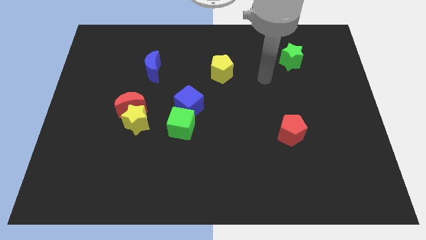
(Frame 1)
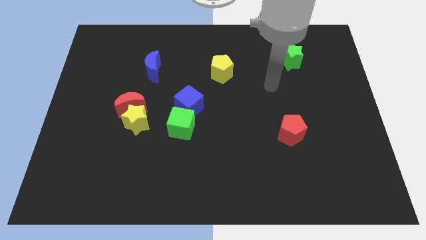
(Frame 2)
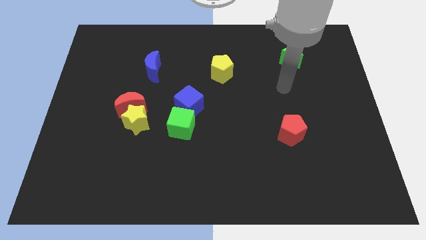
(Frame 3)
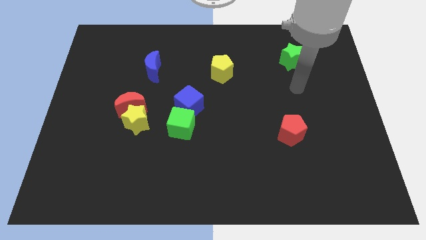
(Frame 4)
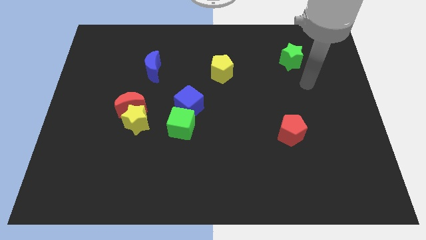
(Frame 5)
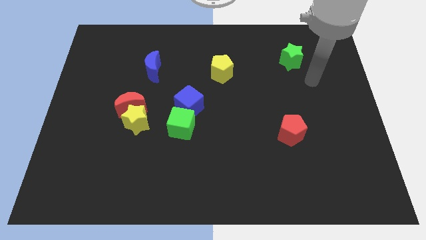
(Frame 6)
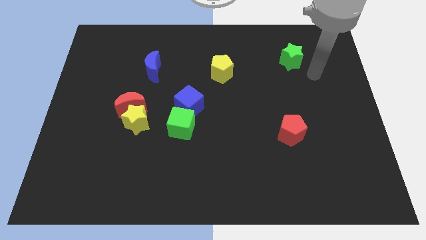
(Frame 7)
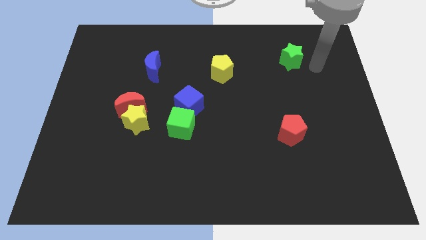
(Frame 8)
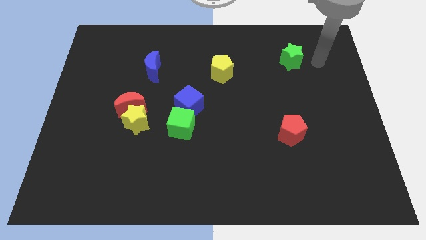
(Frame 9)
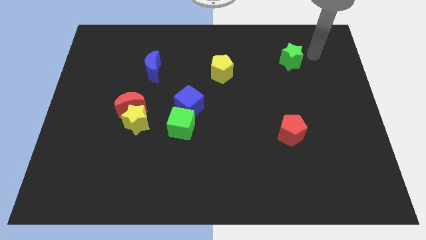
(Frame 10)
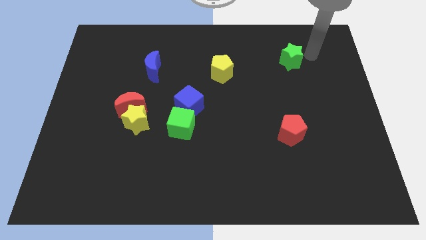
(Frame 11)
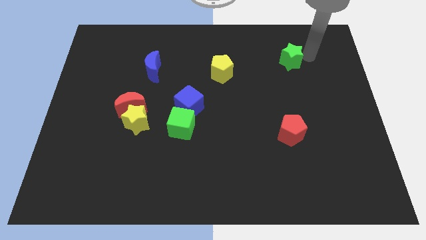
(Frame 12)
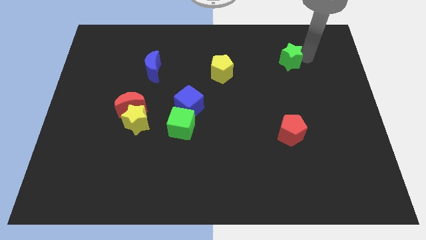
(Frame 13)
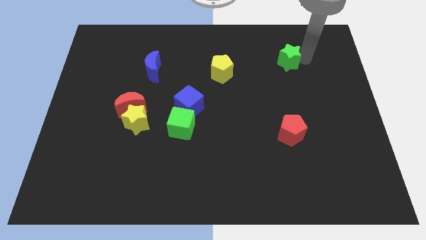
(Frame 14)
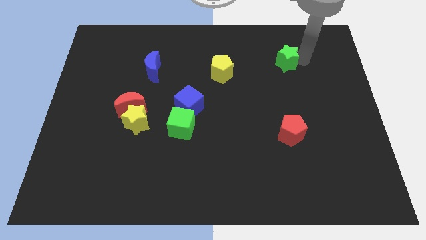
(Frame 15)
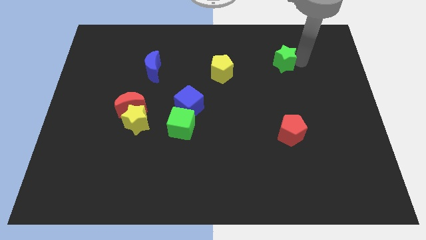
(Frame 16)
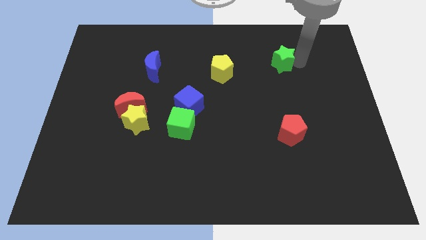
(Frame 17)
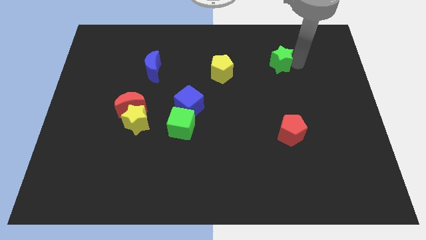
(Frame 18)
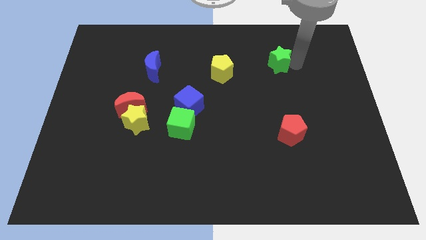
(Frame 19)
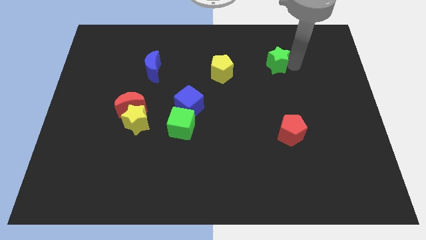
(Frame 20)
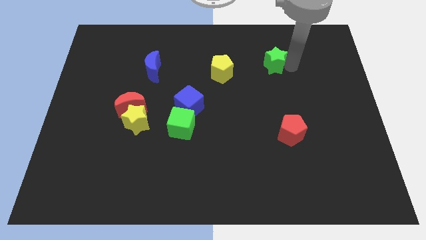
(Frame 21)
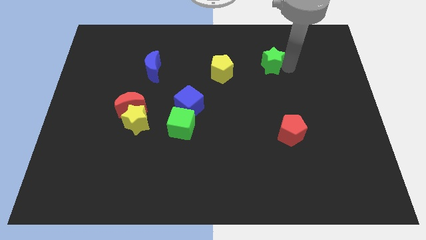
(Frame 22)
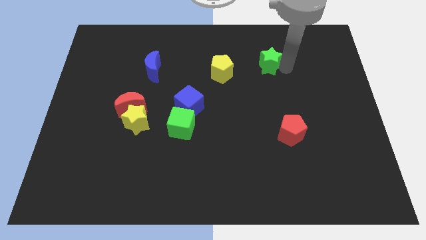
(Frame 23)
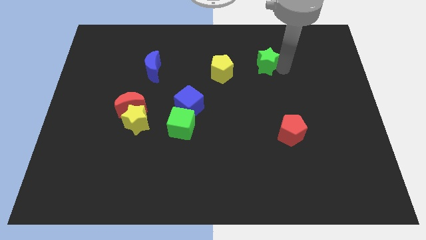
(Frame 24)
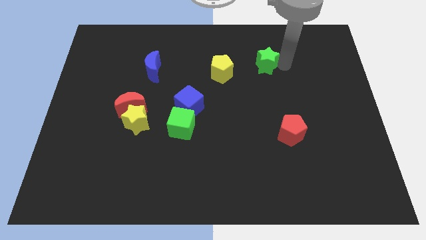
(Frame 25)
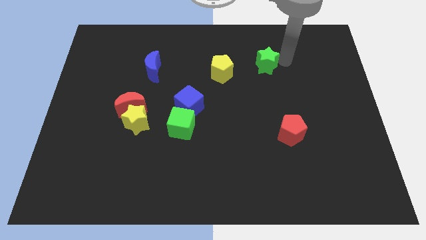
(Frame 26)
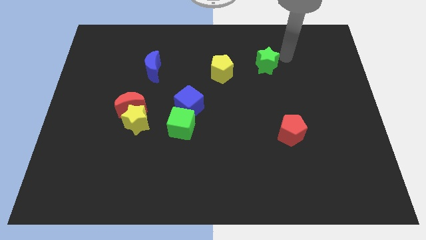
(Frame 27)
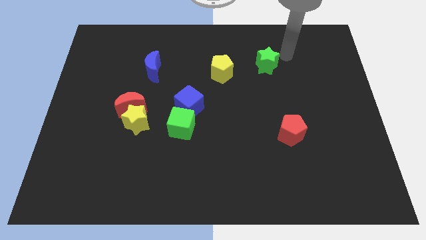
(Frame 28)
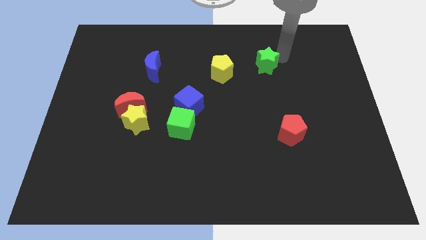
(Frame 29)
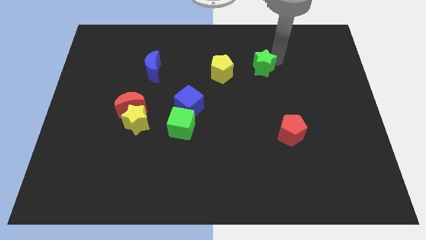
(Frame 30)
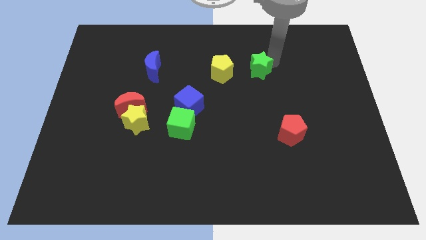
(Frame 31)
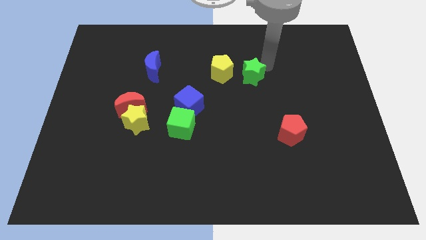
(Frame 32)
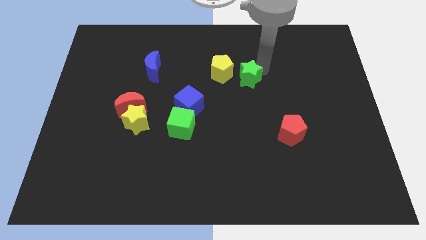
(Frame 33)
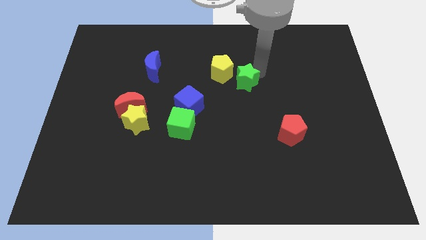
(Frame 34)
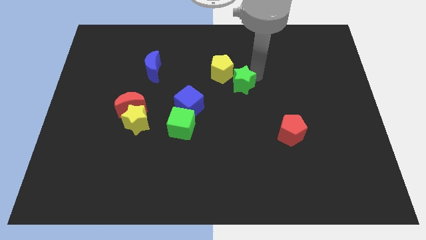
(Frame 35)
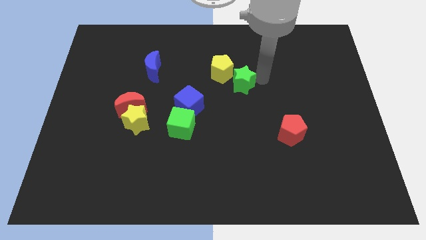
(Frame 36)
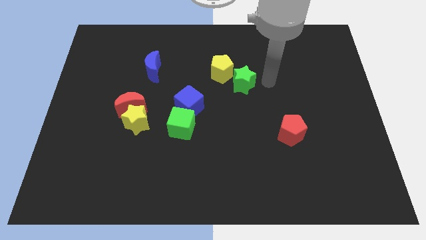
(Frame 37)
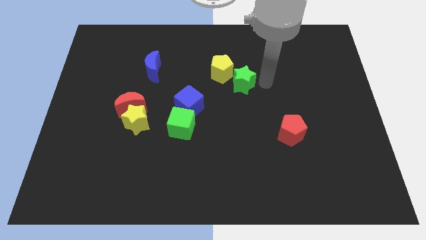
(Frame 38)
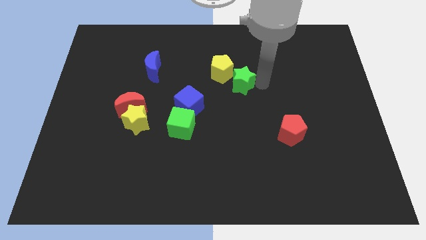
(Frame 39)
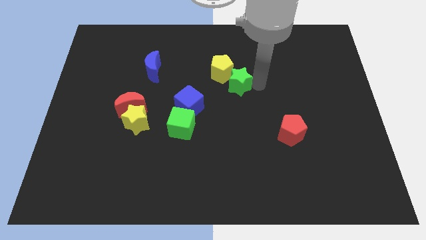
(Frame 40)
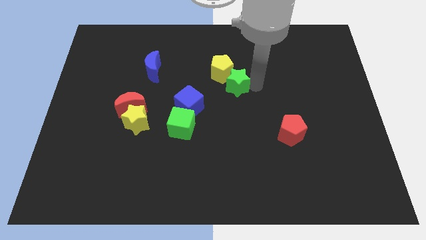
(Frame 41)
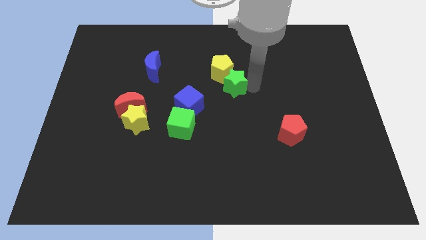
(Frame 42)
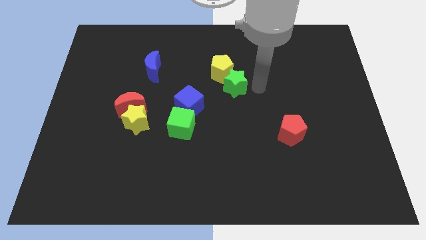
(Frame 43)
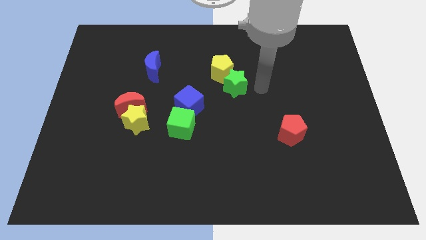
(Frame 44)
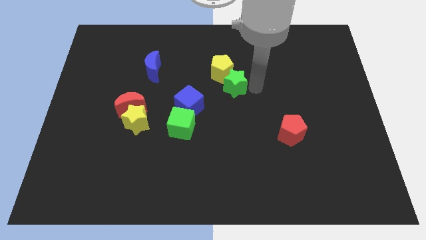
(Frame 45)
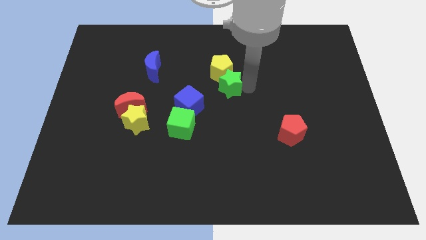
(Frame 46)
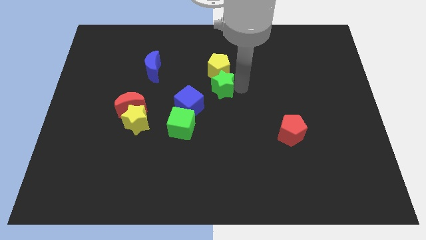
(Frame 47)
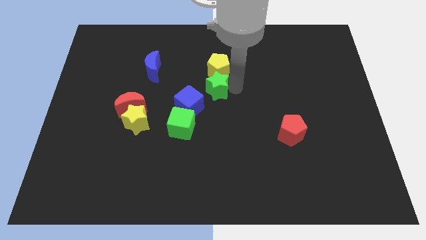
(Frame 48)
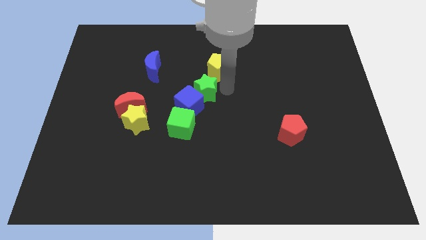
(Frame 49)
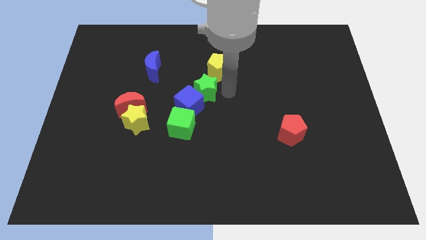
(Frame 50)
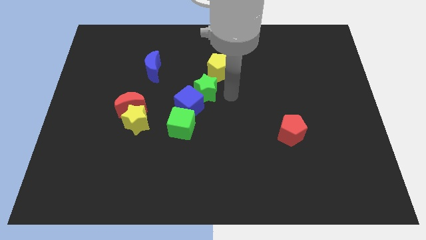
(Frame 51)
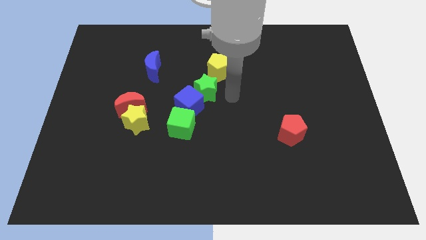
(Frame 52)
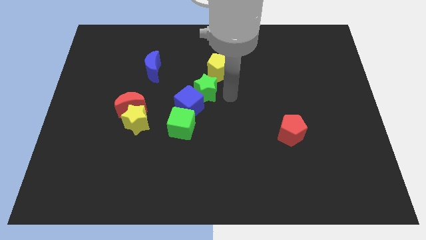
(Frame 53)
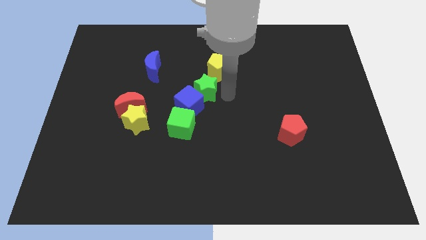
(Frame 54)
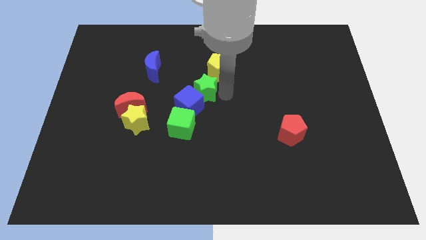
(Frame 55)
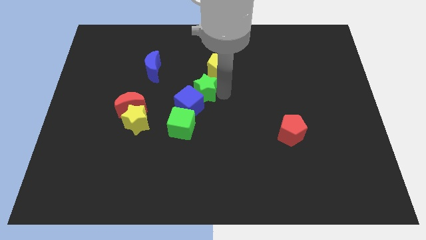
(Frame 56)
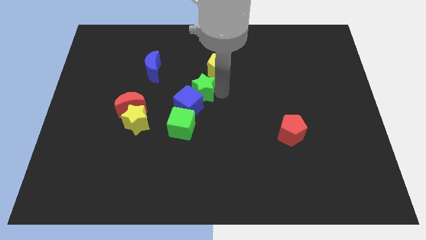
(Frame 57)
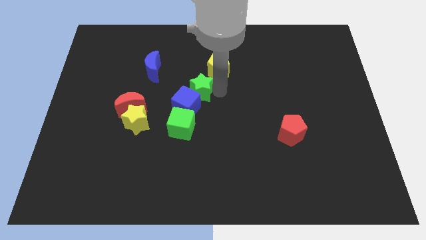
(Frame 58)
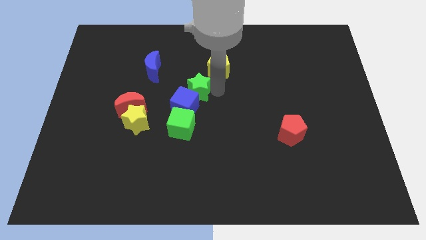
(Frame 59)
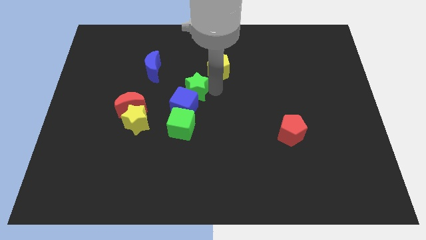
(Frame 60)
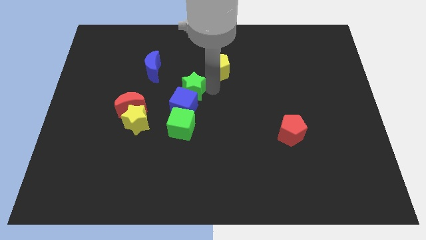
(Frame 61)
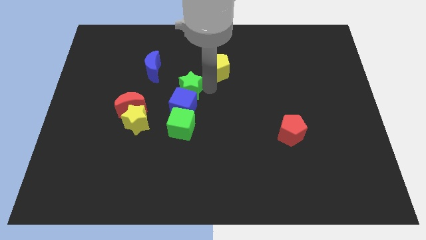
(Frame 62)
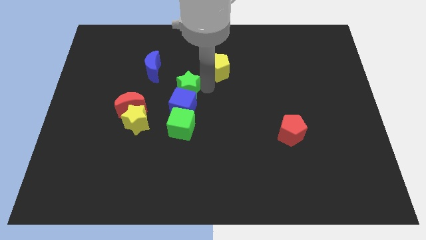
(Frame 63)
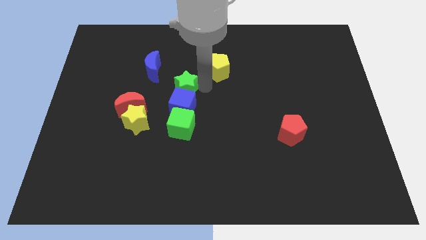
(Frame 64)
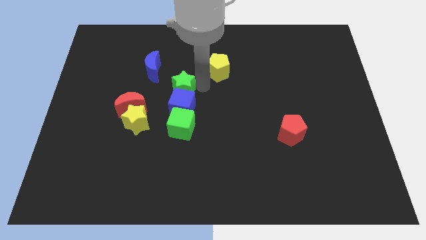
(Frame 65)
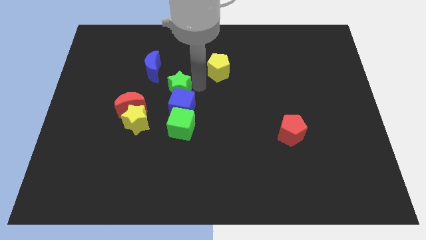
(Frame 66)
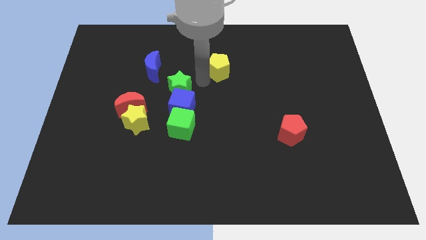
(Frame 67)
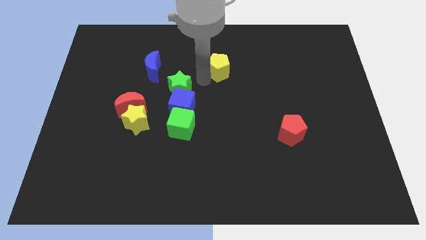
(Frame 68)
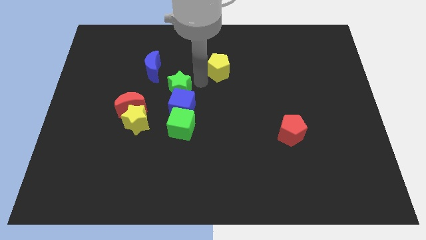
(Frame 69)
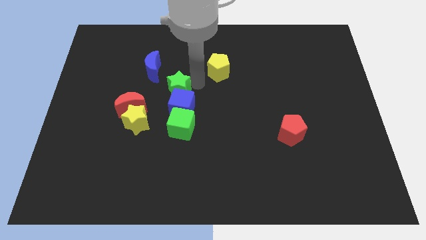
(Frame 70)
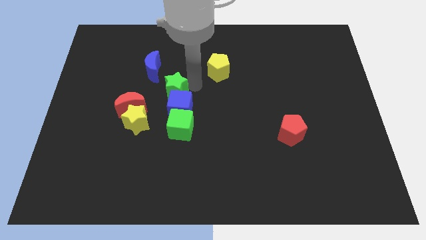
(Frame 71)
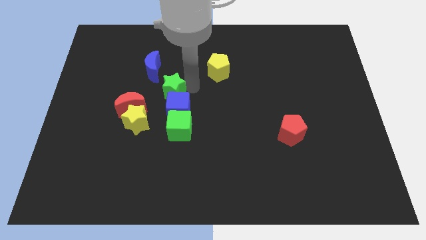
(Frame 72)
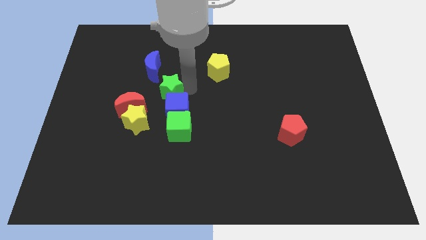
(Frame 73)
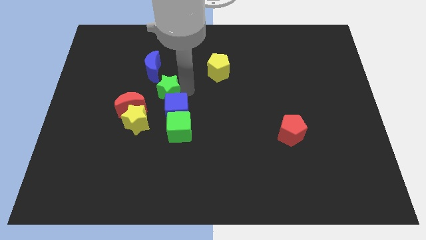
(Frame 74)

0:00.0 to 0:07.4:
put the green star below the blue moon

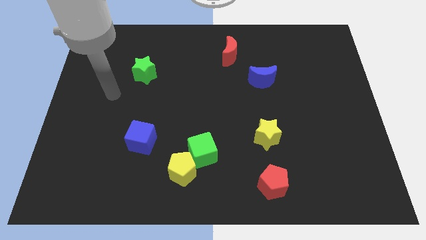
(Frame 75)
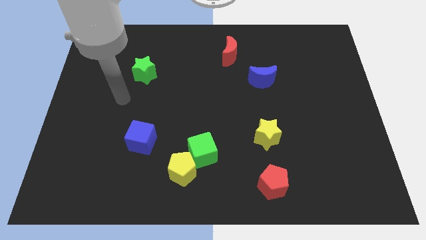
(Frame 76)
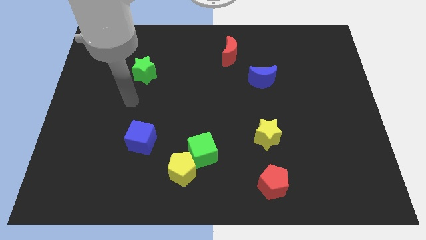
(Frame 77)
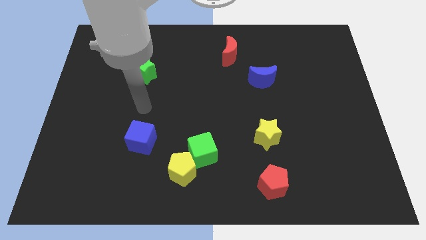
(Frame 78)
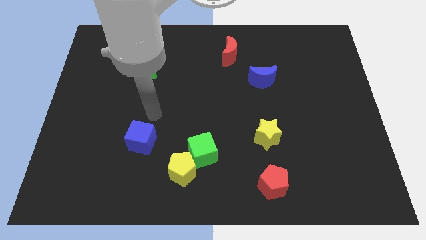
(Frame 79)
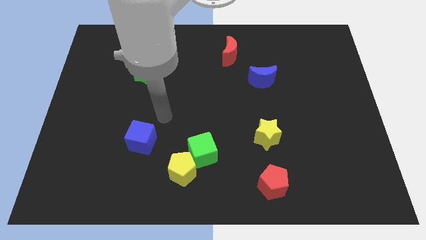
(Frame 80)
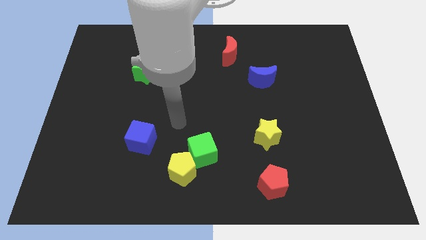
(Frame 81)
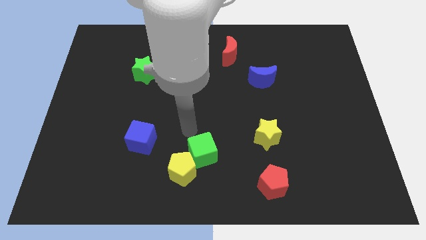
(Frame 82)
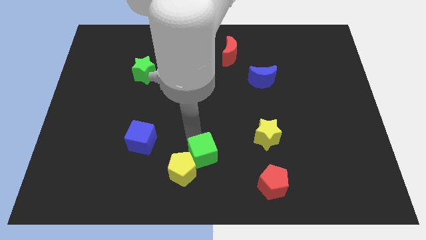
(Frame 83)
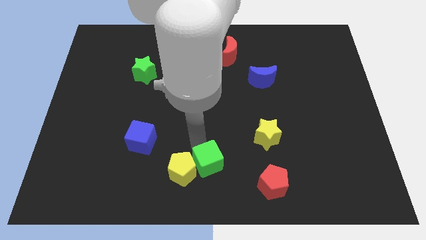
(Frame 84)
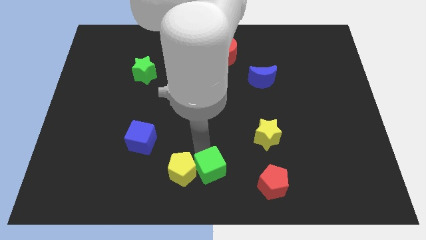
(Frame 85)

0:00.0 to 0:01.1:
push the green cube just left of the red pentagon
